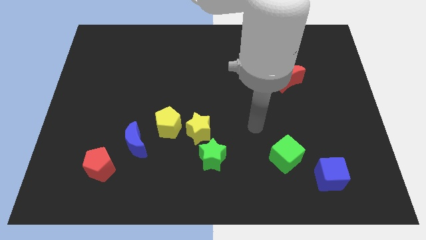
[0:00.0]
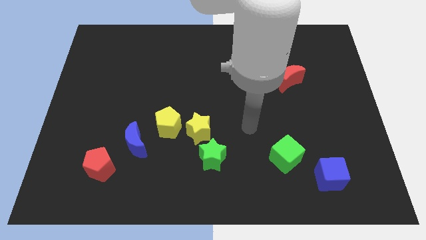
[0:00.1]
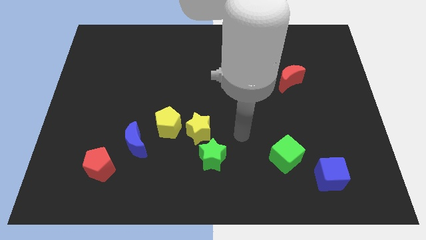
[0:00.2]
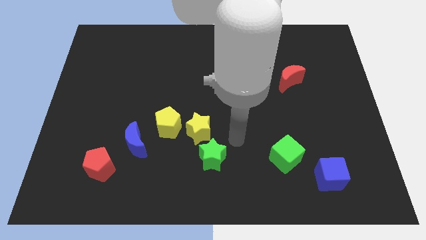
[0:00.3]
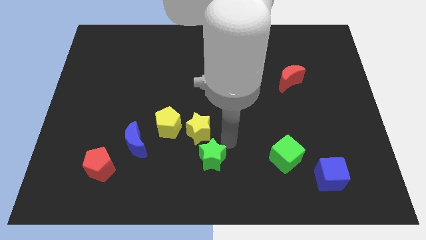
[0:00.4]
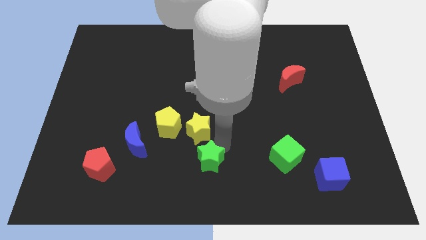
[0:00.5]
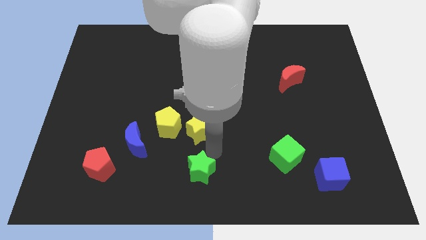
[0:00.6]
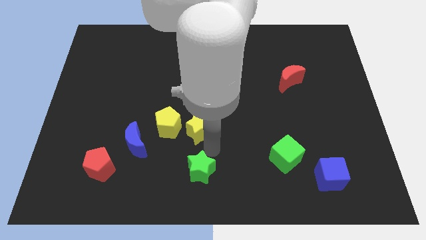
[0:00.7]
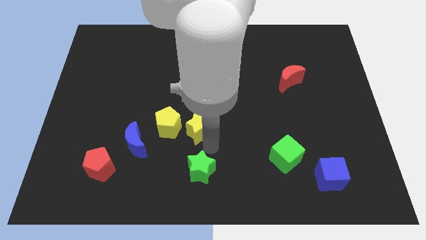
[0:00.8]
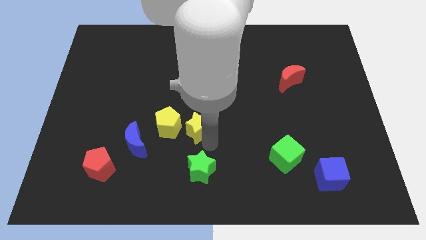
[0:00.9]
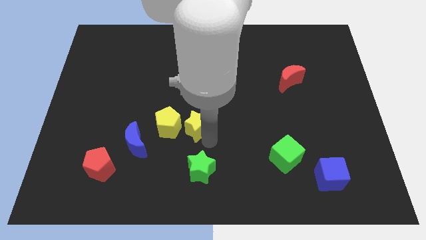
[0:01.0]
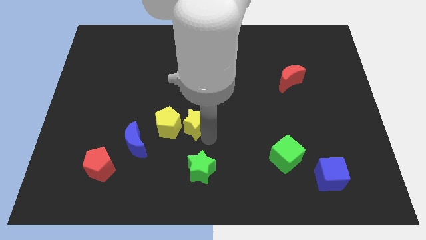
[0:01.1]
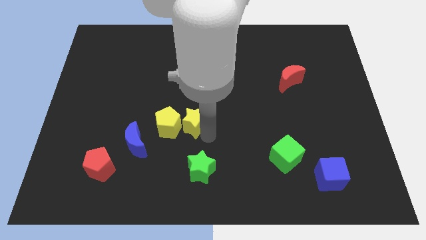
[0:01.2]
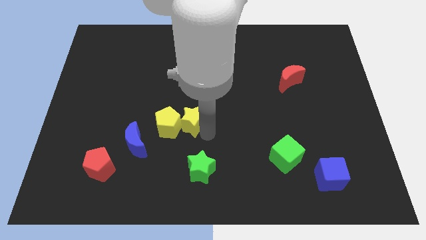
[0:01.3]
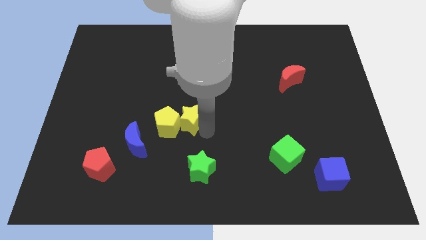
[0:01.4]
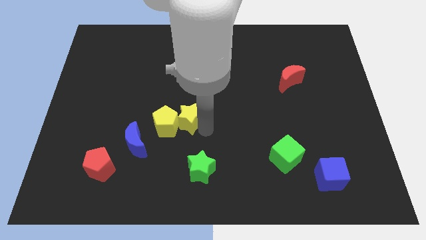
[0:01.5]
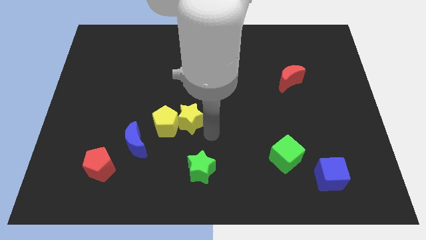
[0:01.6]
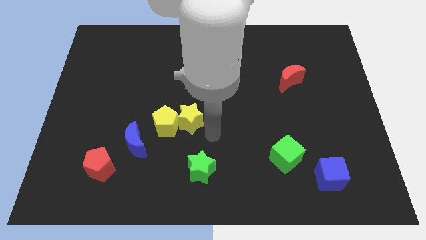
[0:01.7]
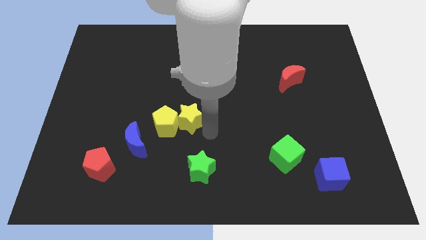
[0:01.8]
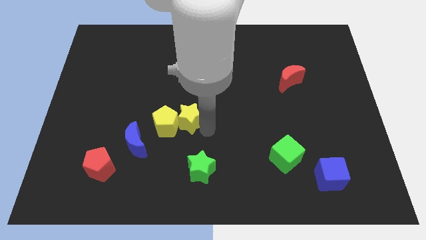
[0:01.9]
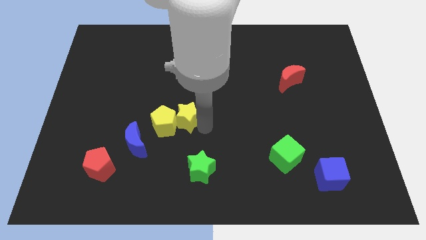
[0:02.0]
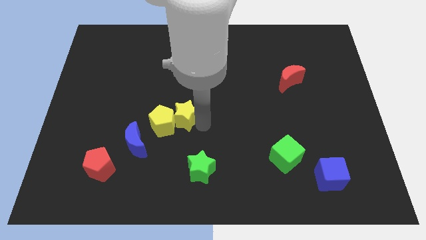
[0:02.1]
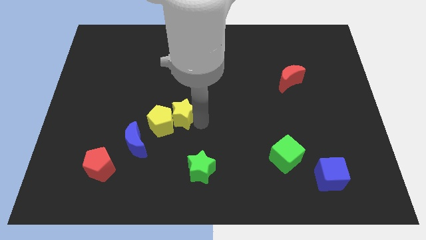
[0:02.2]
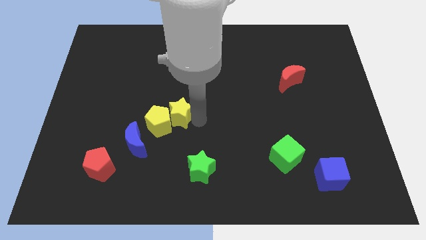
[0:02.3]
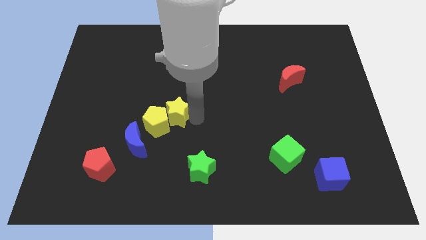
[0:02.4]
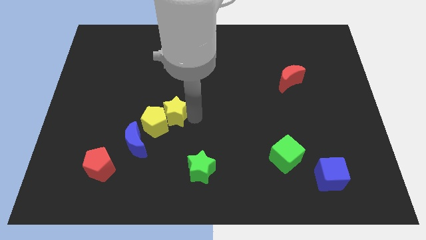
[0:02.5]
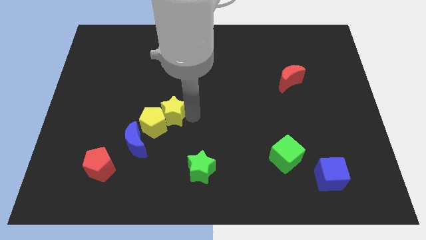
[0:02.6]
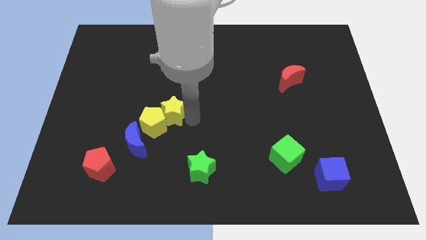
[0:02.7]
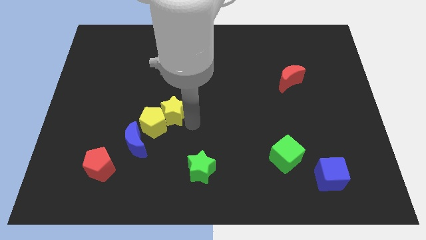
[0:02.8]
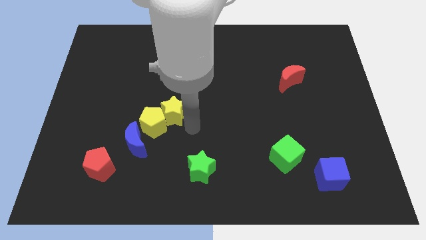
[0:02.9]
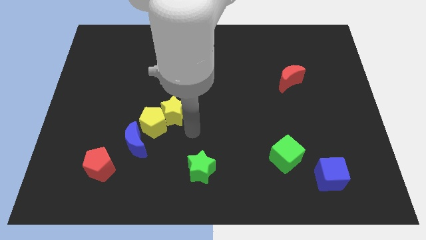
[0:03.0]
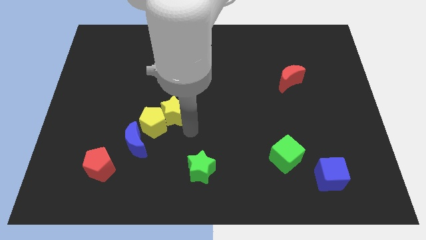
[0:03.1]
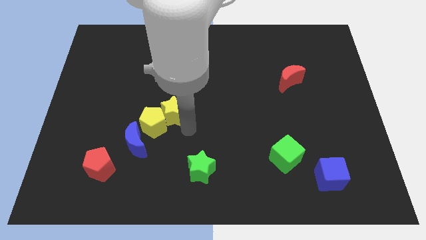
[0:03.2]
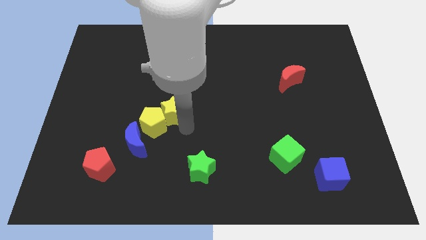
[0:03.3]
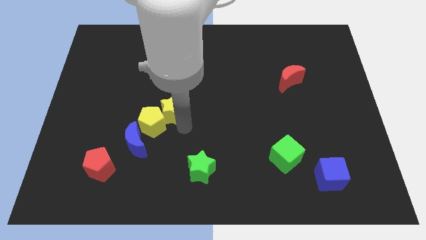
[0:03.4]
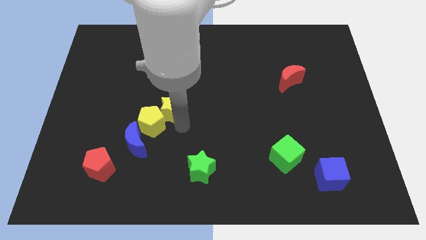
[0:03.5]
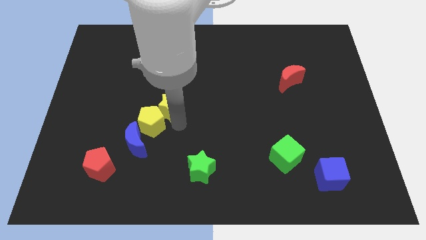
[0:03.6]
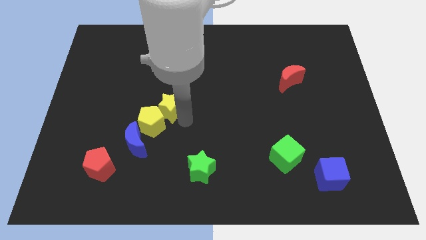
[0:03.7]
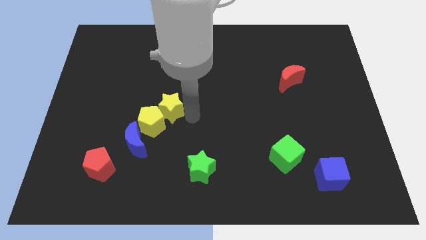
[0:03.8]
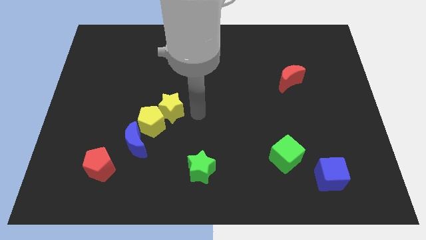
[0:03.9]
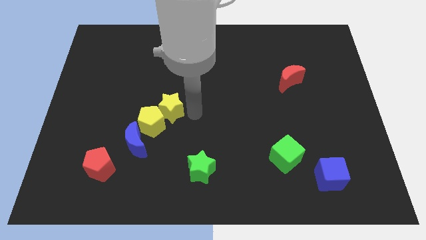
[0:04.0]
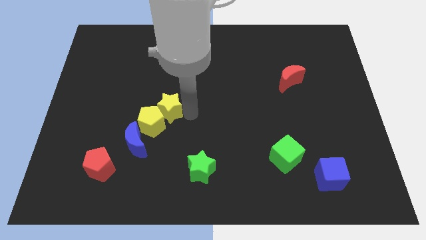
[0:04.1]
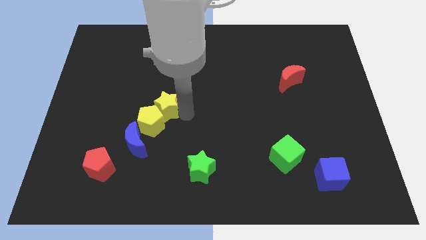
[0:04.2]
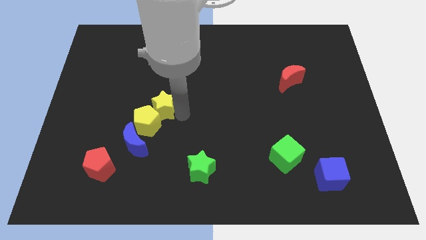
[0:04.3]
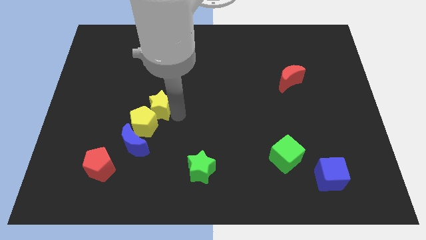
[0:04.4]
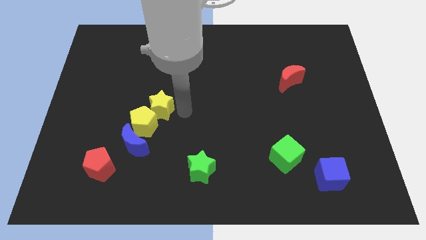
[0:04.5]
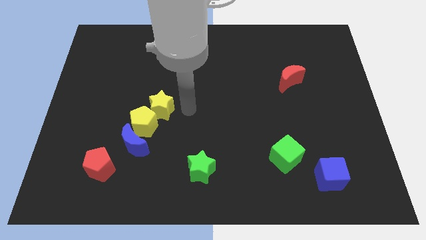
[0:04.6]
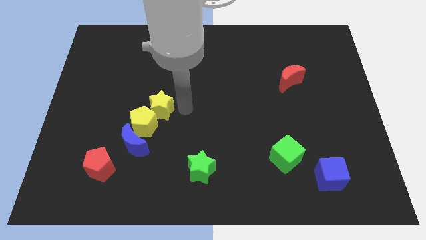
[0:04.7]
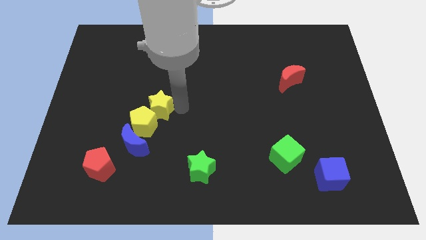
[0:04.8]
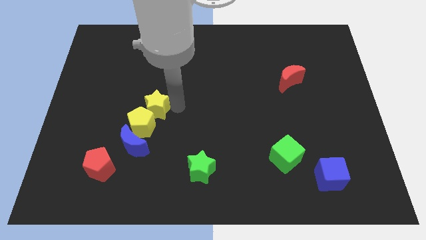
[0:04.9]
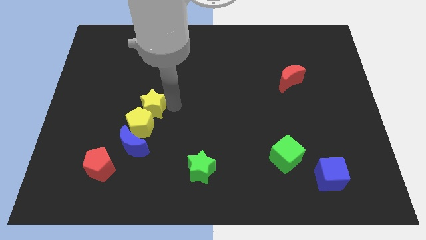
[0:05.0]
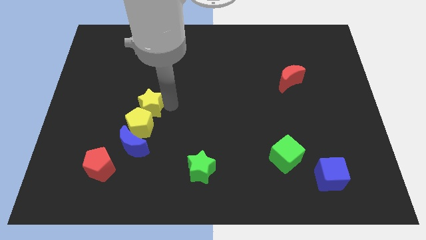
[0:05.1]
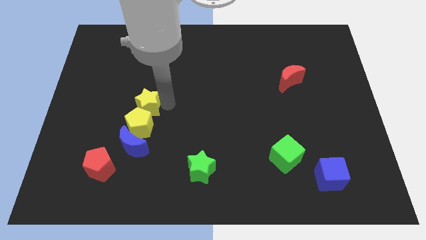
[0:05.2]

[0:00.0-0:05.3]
slide the yellow star to the top left side of the yellow pentagon

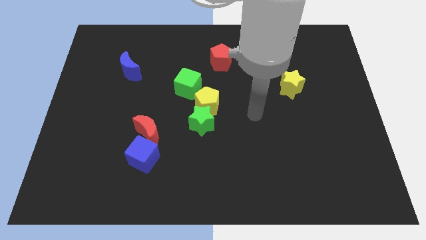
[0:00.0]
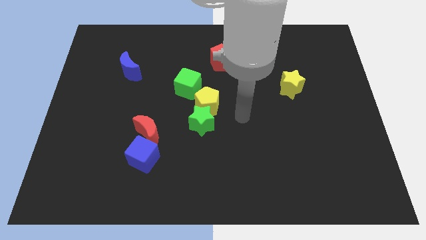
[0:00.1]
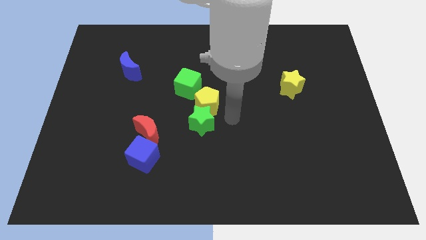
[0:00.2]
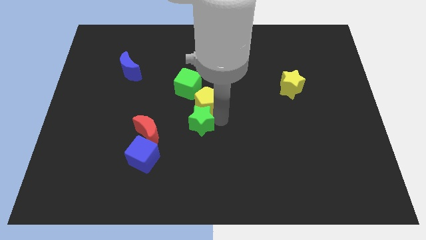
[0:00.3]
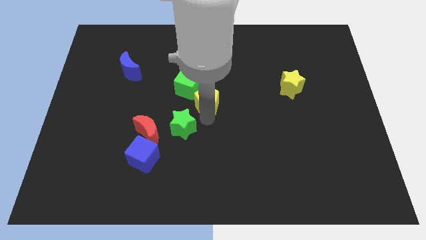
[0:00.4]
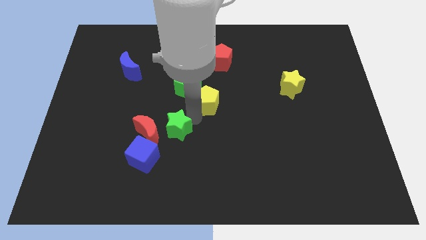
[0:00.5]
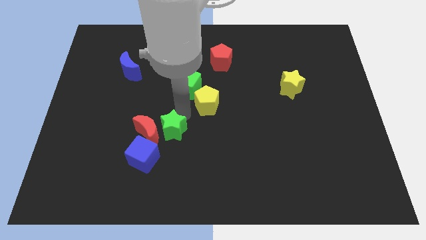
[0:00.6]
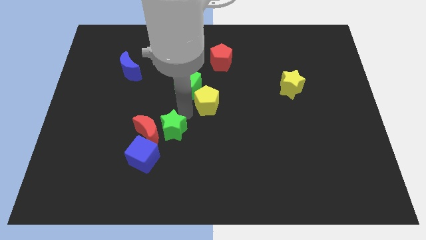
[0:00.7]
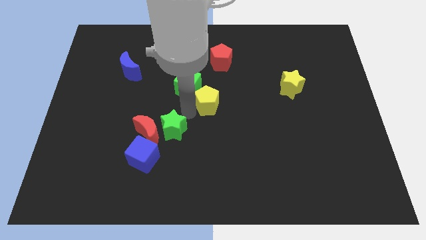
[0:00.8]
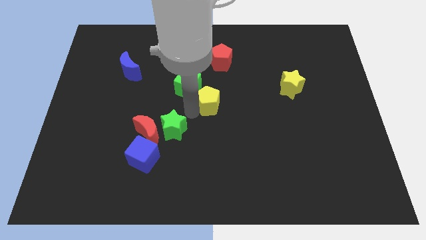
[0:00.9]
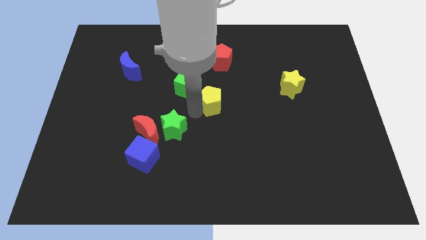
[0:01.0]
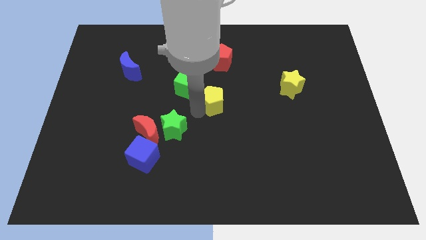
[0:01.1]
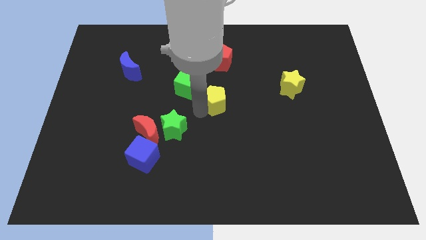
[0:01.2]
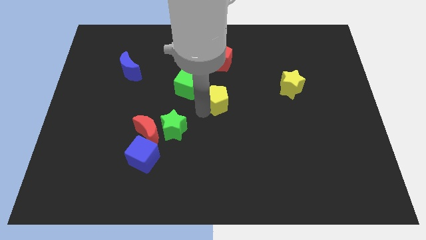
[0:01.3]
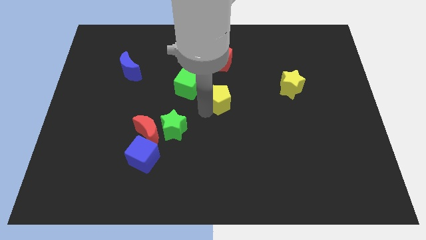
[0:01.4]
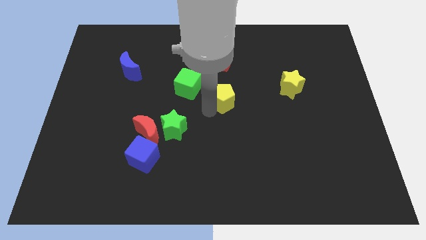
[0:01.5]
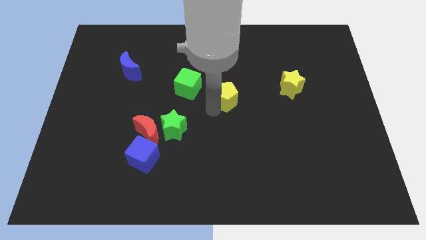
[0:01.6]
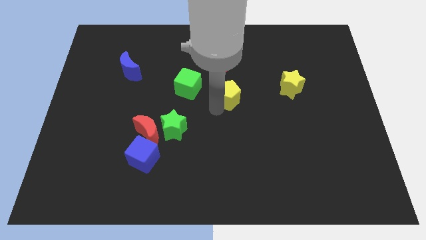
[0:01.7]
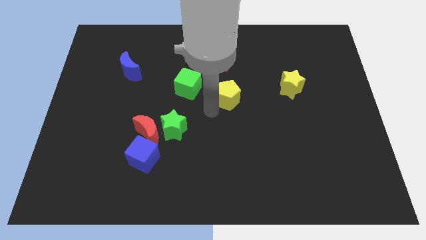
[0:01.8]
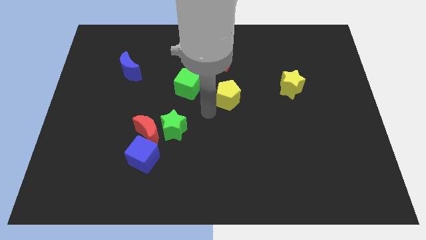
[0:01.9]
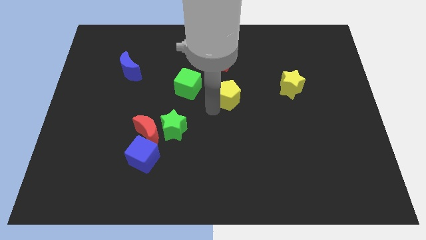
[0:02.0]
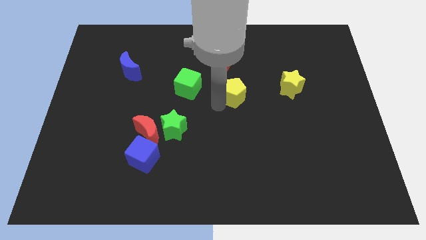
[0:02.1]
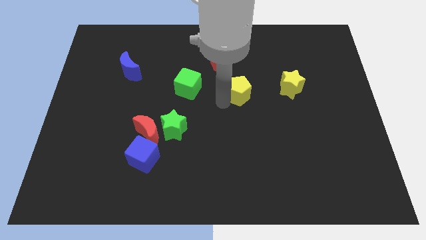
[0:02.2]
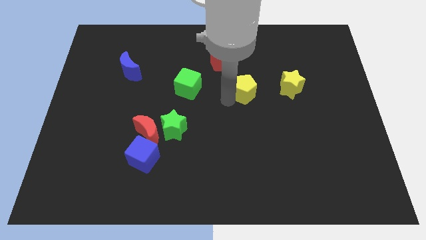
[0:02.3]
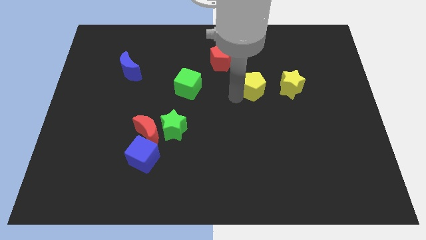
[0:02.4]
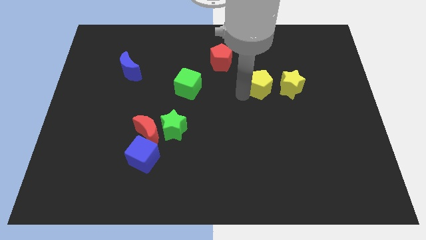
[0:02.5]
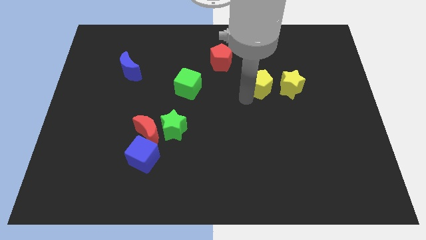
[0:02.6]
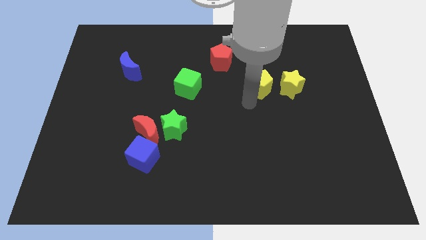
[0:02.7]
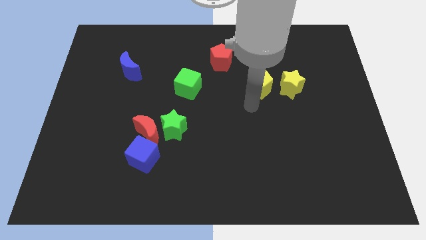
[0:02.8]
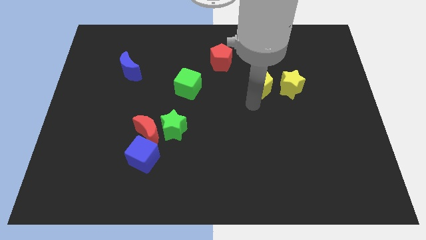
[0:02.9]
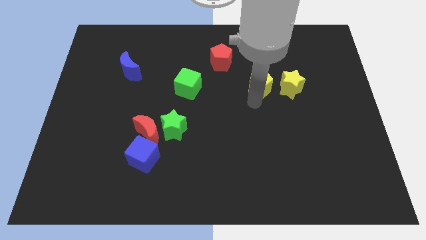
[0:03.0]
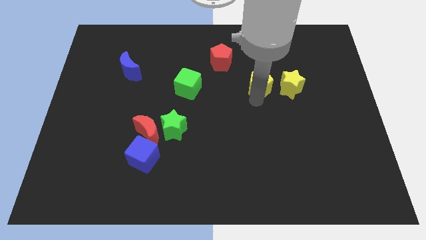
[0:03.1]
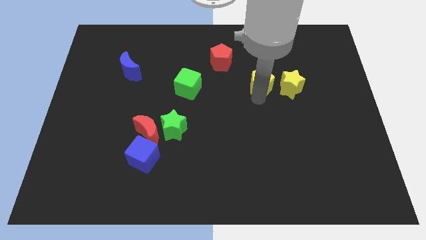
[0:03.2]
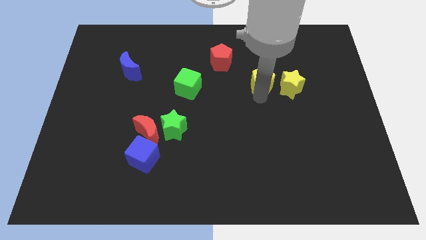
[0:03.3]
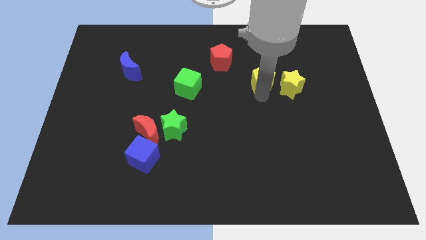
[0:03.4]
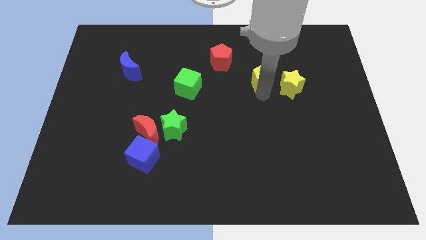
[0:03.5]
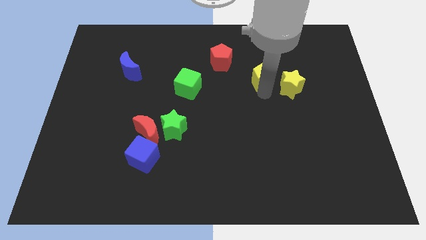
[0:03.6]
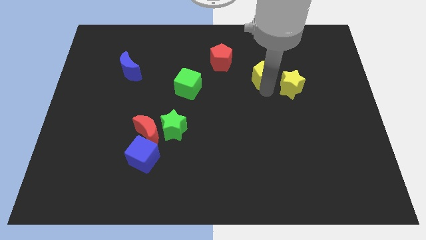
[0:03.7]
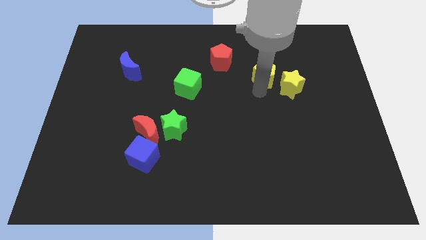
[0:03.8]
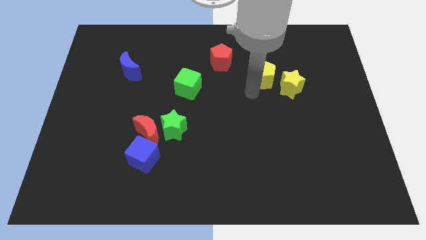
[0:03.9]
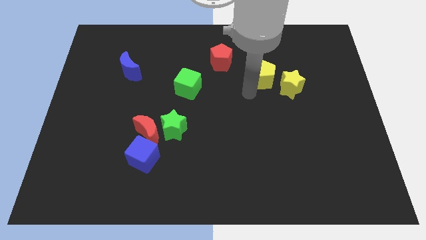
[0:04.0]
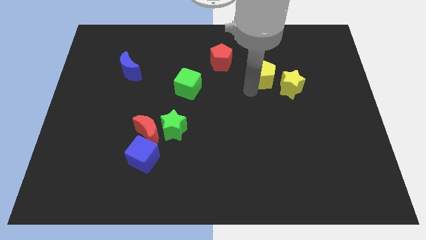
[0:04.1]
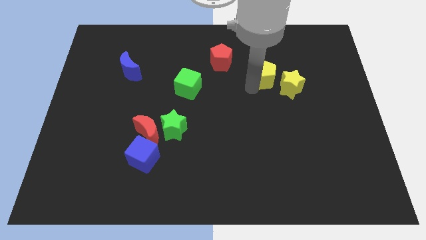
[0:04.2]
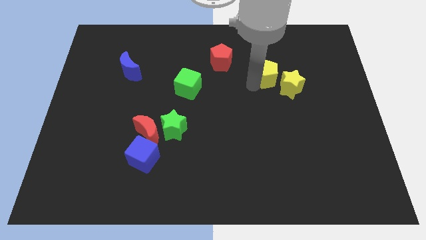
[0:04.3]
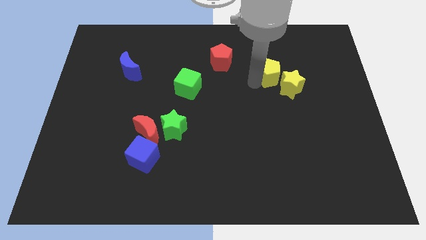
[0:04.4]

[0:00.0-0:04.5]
put the yellow pentagon above the yellow star
